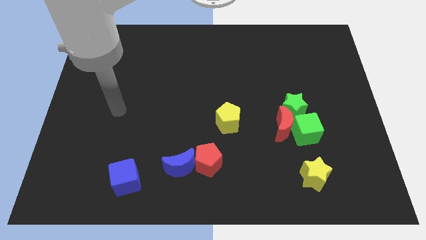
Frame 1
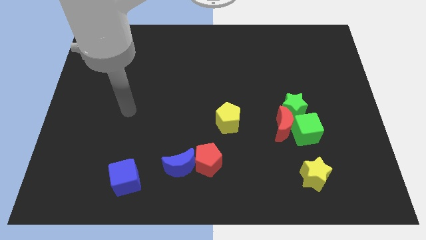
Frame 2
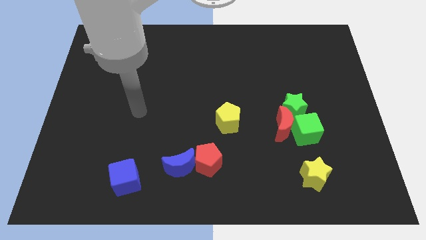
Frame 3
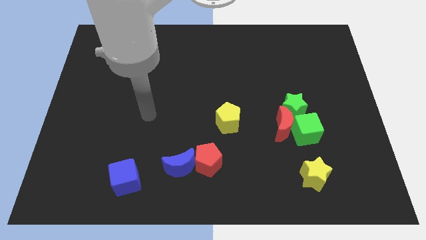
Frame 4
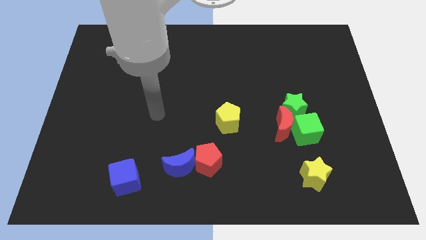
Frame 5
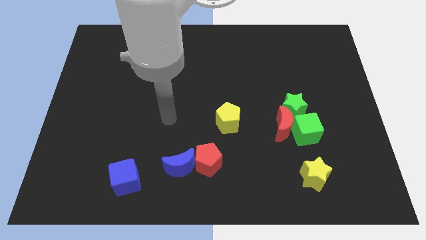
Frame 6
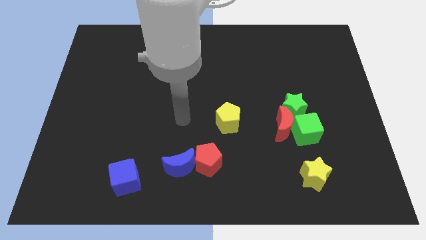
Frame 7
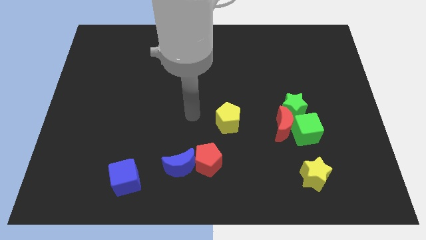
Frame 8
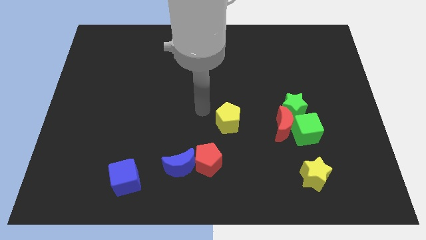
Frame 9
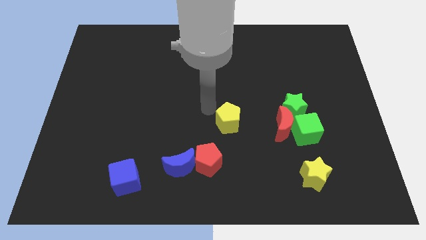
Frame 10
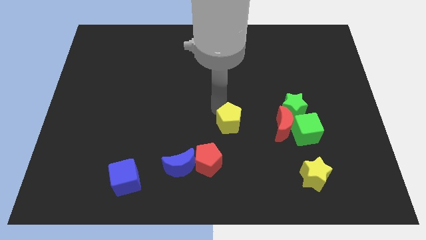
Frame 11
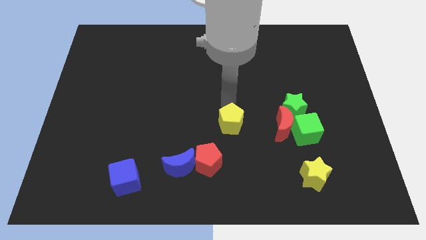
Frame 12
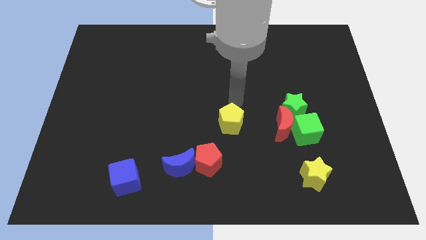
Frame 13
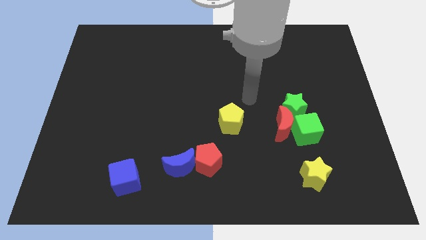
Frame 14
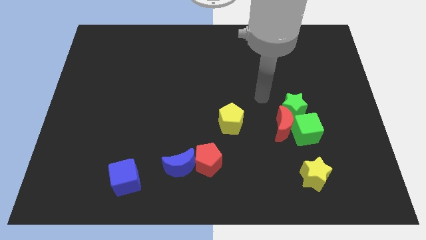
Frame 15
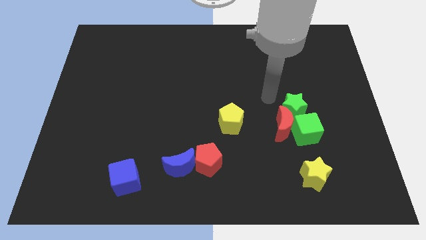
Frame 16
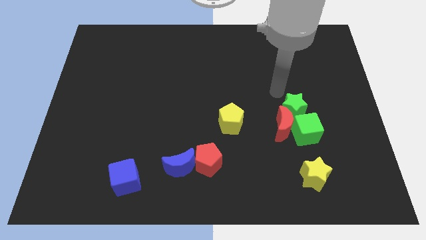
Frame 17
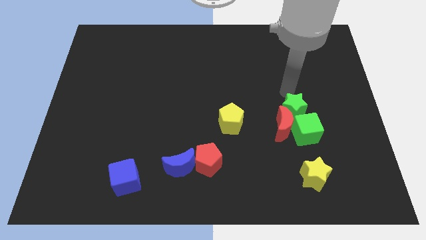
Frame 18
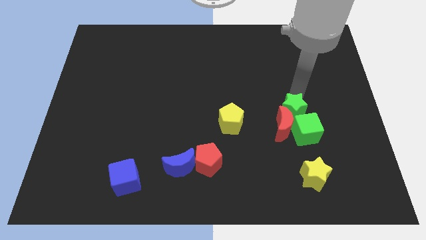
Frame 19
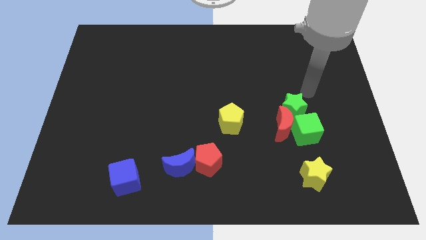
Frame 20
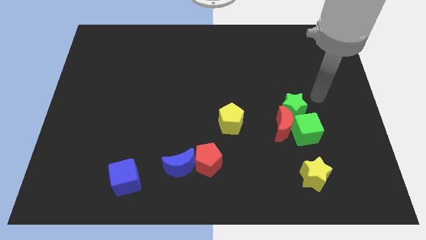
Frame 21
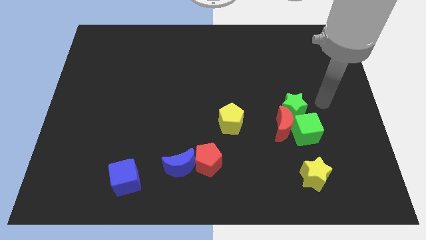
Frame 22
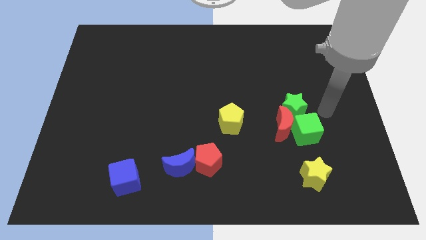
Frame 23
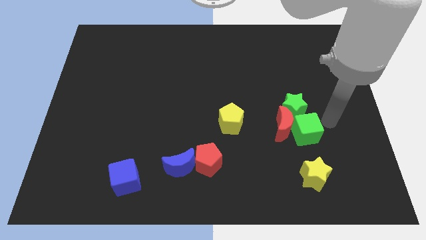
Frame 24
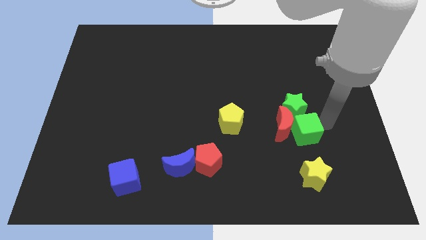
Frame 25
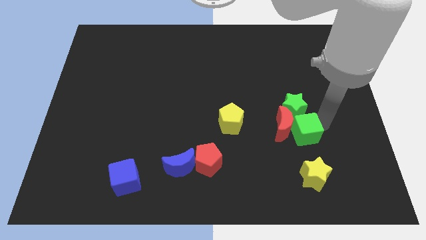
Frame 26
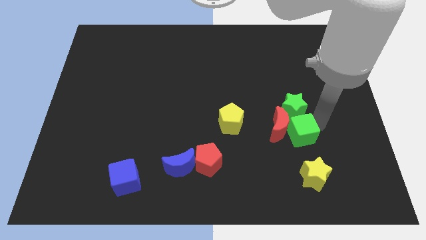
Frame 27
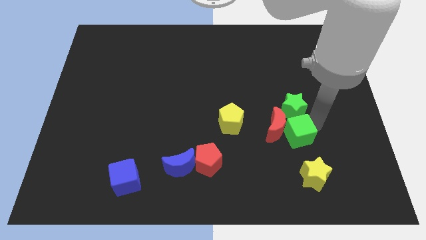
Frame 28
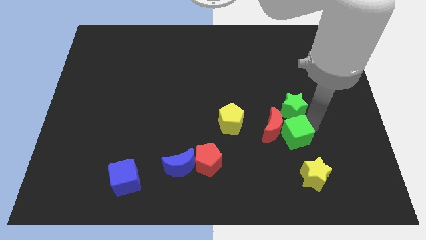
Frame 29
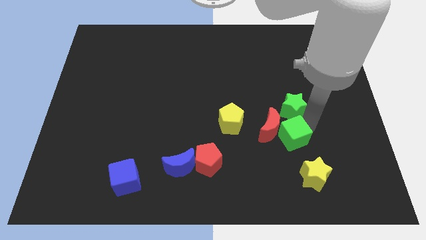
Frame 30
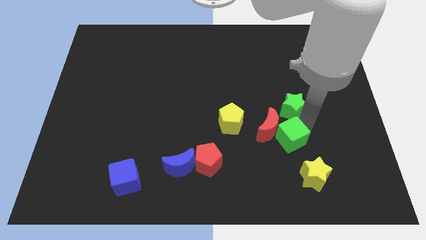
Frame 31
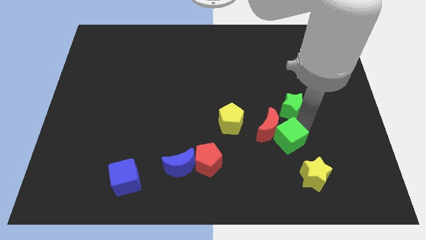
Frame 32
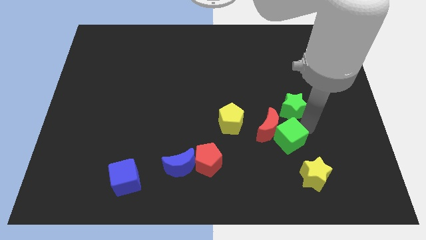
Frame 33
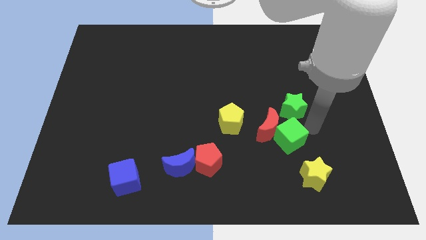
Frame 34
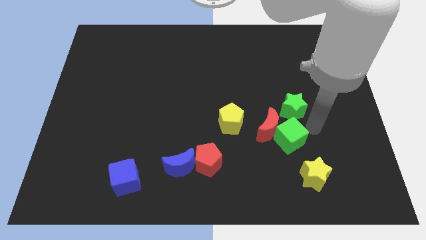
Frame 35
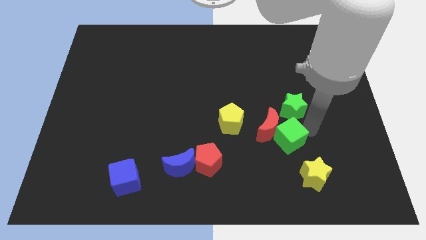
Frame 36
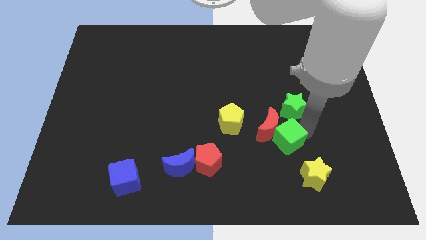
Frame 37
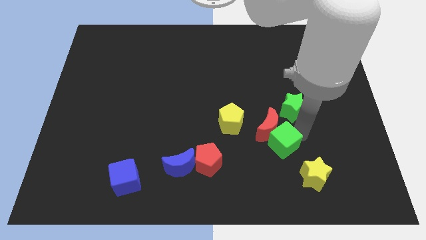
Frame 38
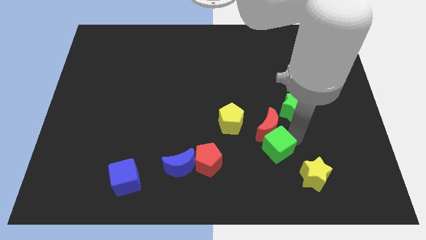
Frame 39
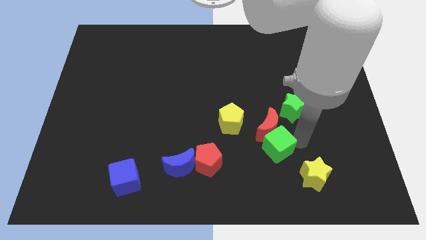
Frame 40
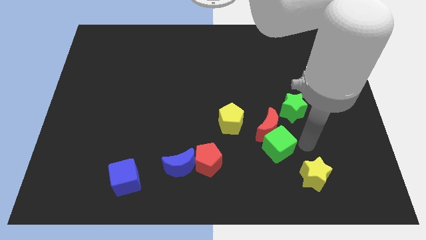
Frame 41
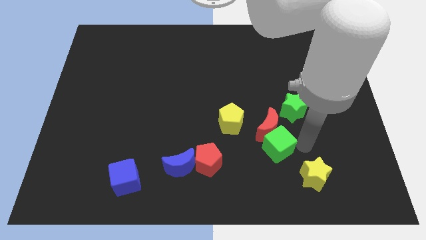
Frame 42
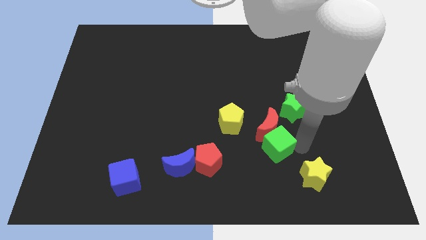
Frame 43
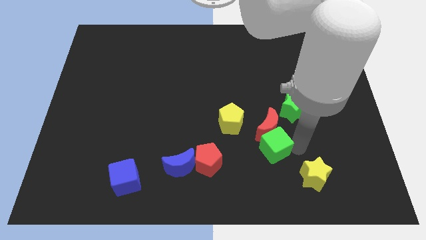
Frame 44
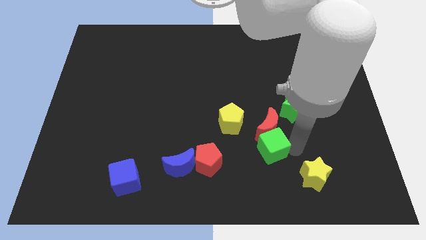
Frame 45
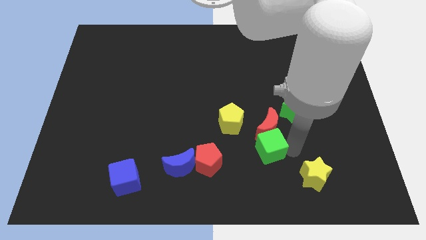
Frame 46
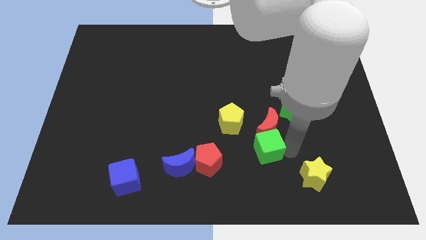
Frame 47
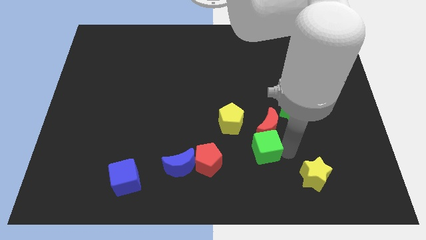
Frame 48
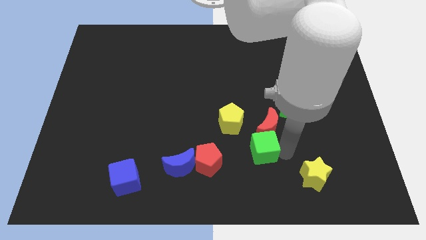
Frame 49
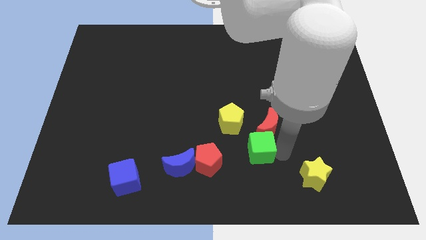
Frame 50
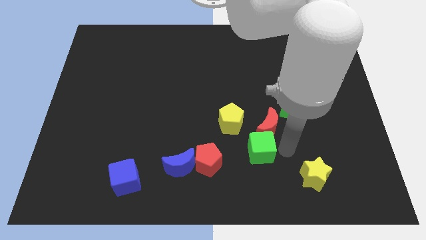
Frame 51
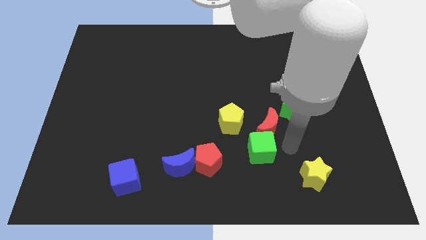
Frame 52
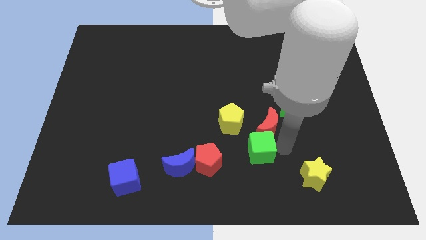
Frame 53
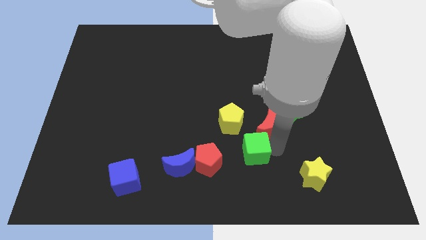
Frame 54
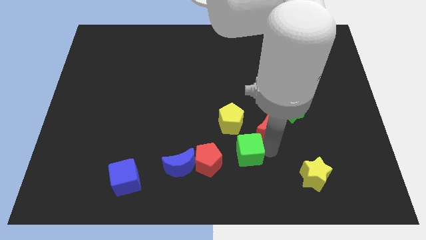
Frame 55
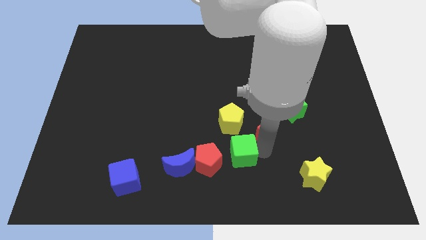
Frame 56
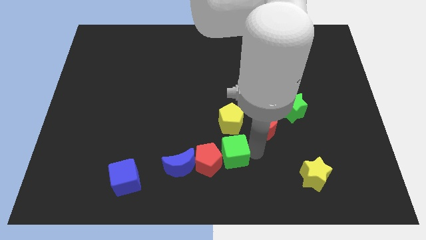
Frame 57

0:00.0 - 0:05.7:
push the green cube close to the red pentagon
